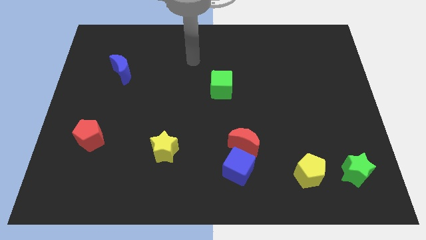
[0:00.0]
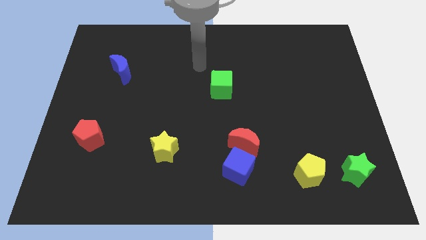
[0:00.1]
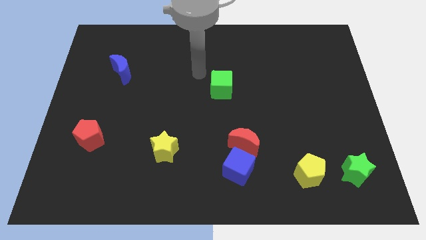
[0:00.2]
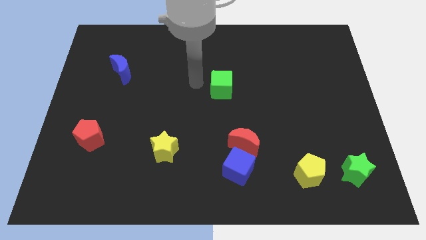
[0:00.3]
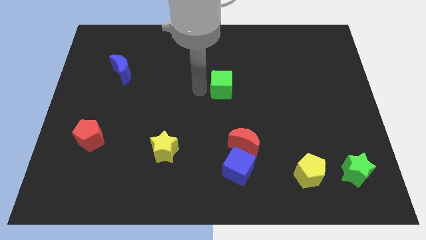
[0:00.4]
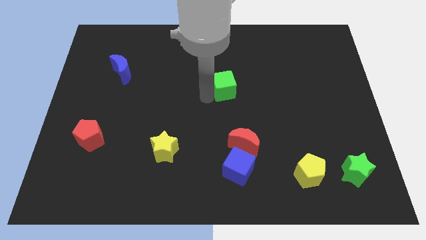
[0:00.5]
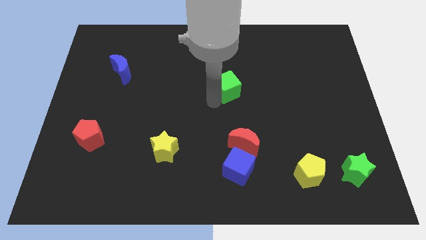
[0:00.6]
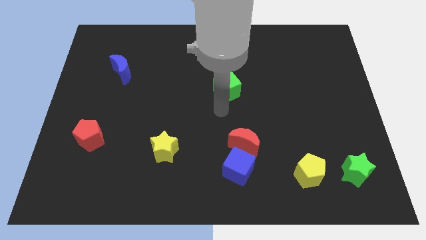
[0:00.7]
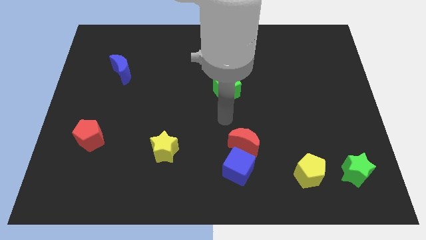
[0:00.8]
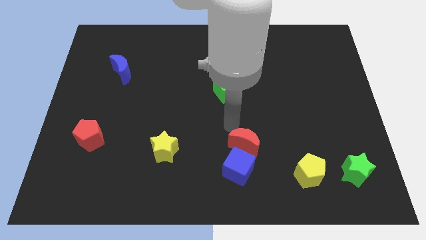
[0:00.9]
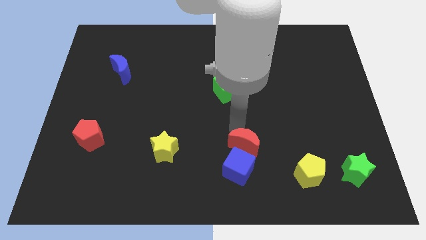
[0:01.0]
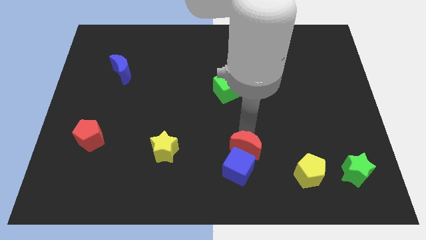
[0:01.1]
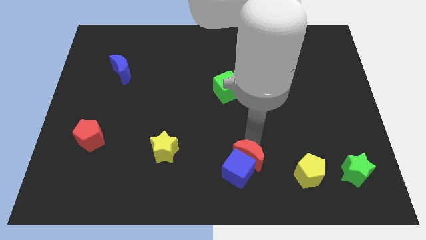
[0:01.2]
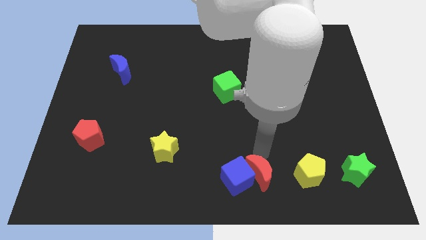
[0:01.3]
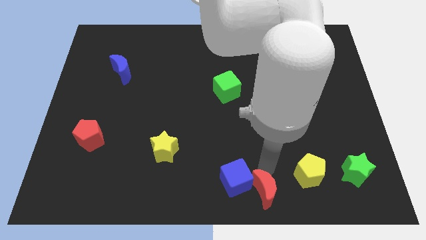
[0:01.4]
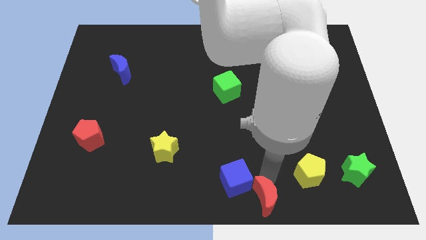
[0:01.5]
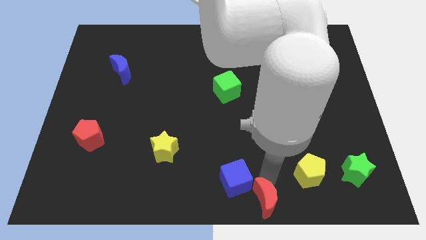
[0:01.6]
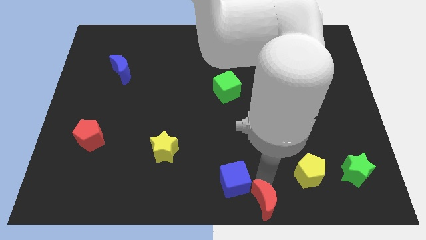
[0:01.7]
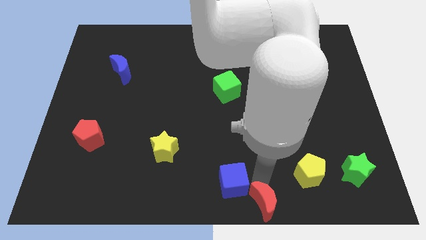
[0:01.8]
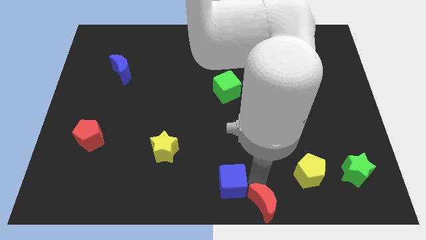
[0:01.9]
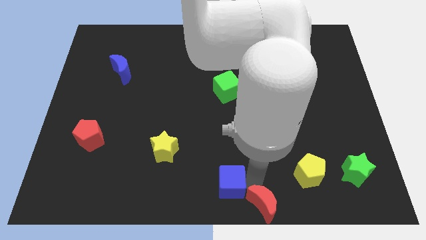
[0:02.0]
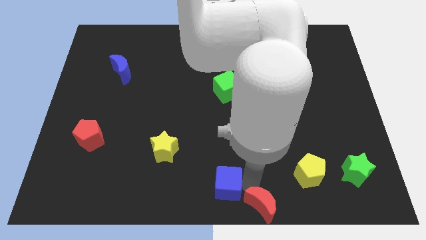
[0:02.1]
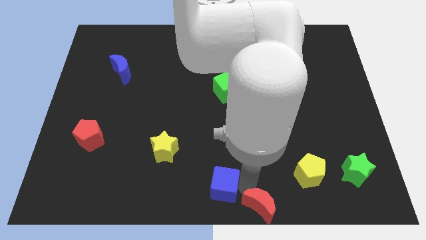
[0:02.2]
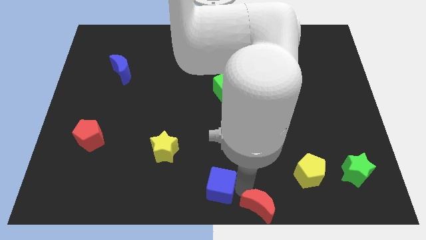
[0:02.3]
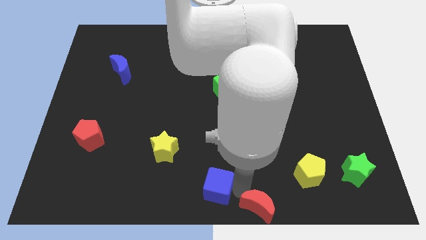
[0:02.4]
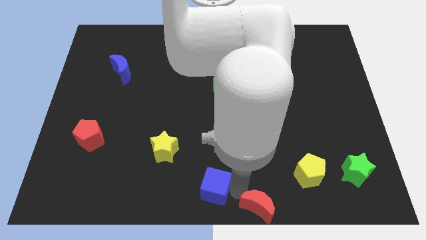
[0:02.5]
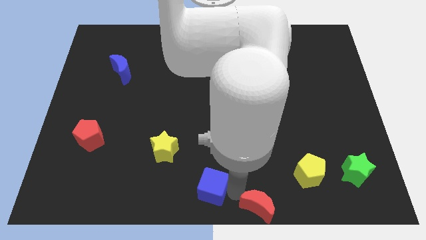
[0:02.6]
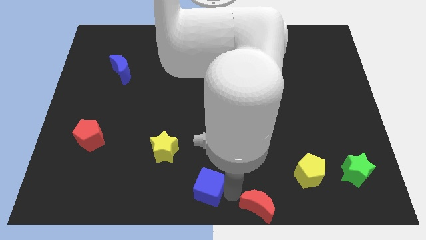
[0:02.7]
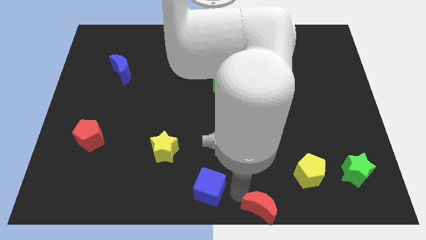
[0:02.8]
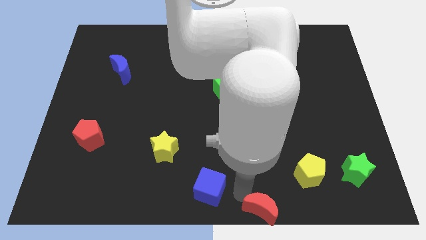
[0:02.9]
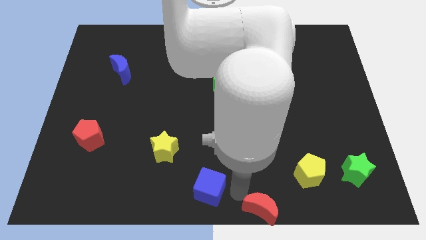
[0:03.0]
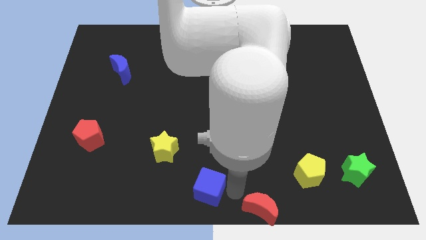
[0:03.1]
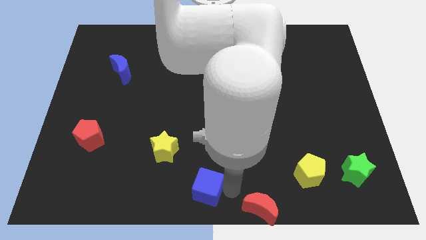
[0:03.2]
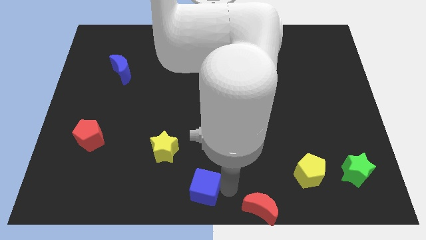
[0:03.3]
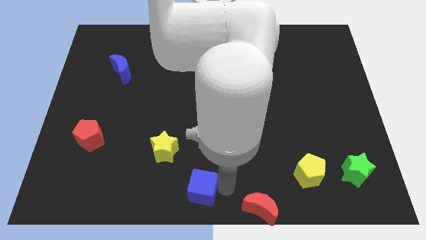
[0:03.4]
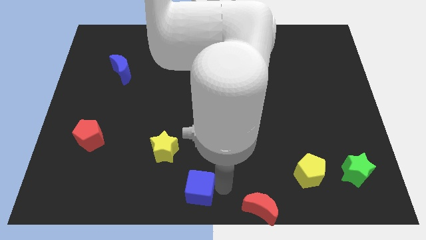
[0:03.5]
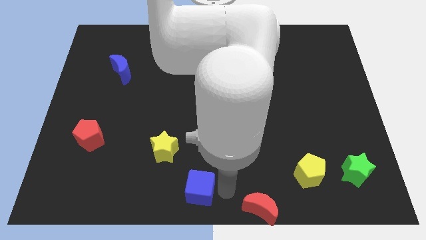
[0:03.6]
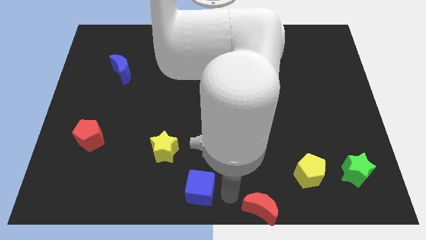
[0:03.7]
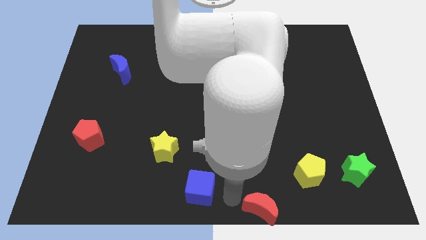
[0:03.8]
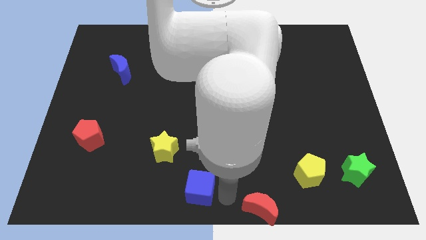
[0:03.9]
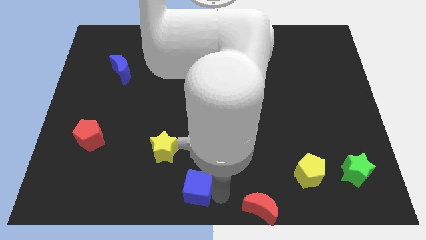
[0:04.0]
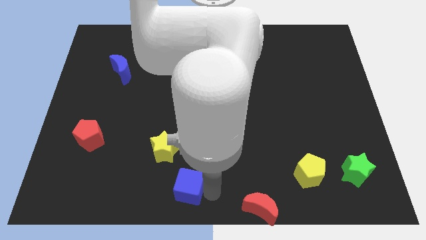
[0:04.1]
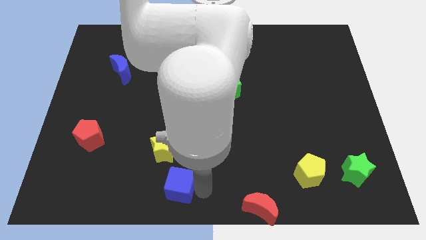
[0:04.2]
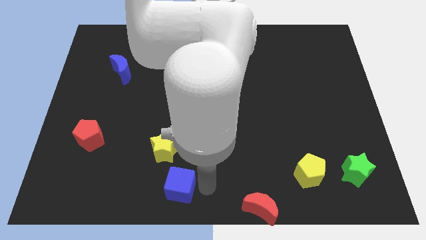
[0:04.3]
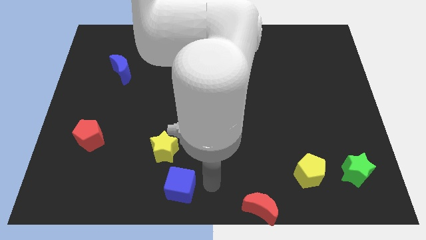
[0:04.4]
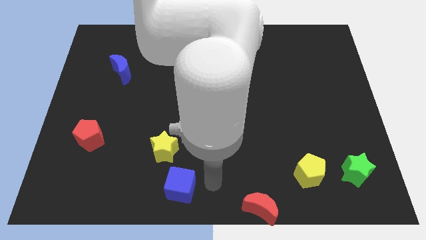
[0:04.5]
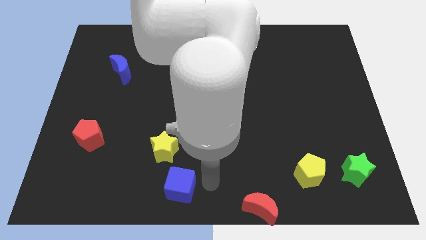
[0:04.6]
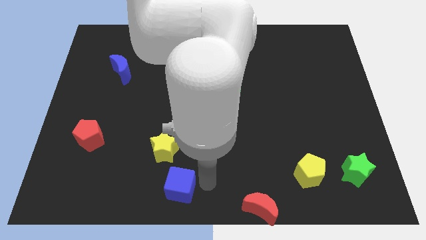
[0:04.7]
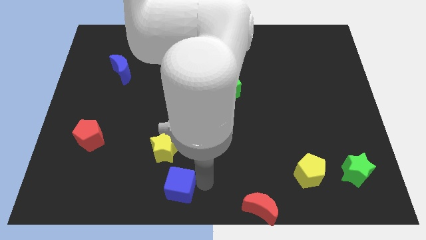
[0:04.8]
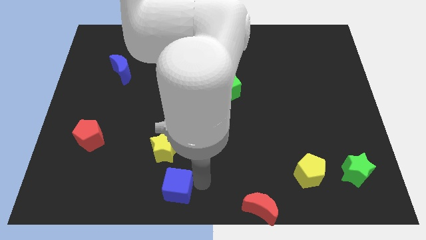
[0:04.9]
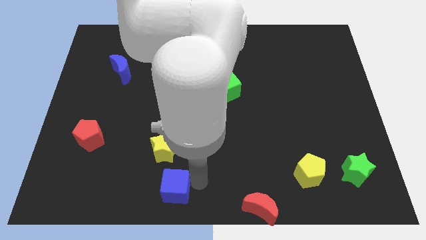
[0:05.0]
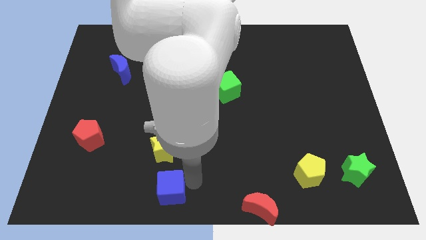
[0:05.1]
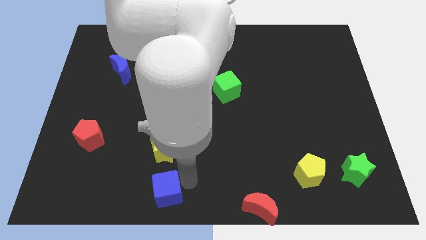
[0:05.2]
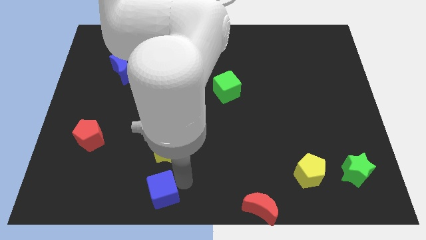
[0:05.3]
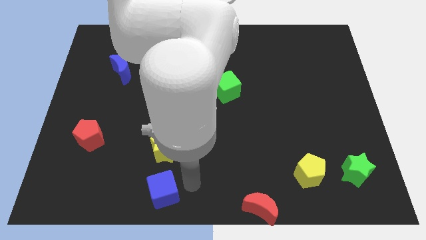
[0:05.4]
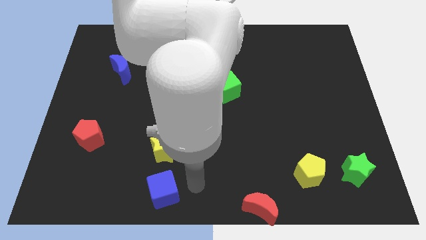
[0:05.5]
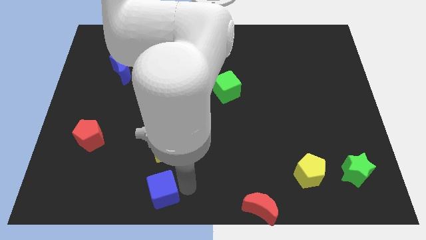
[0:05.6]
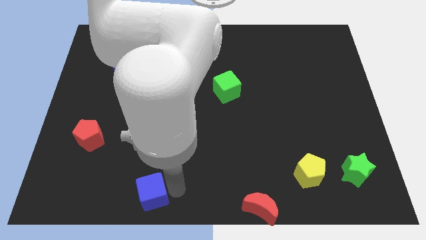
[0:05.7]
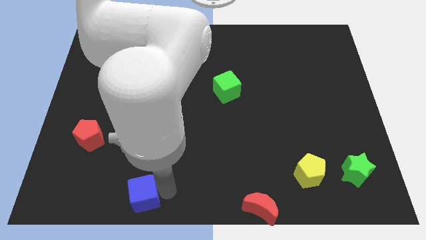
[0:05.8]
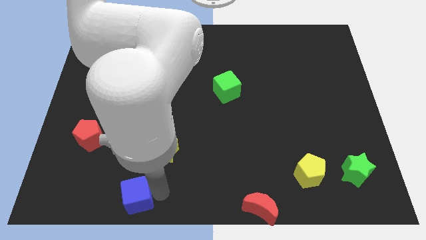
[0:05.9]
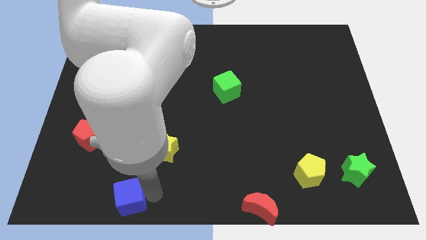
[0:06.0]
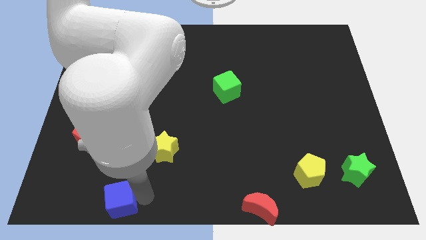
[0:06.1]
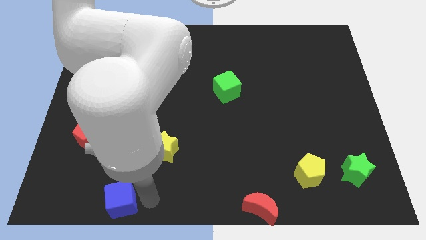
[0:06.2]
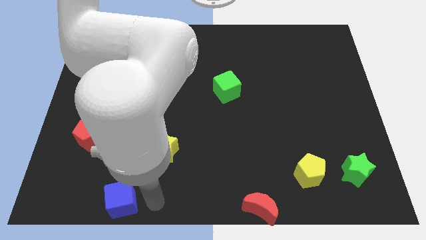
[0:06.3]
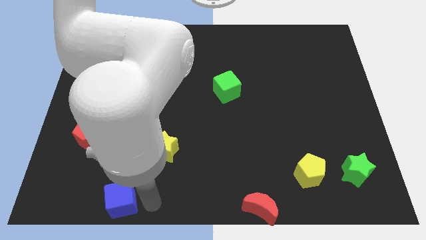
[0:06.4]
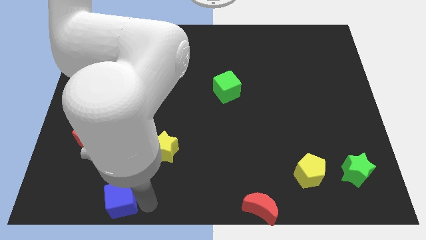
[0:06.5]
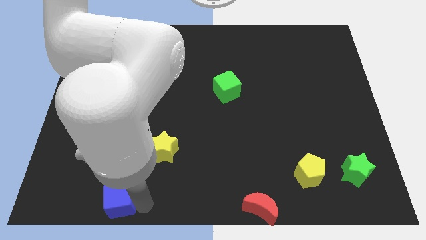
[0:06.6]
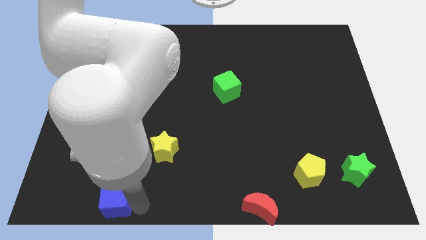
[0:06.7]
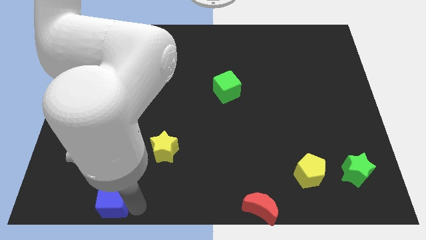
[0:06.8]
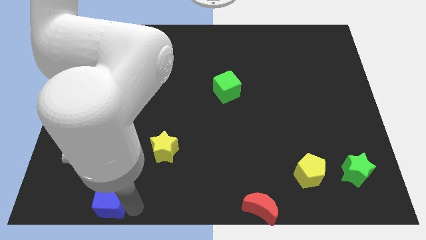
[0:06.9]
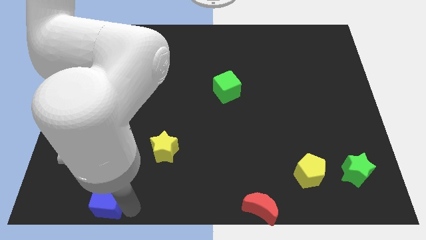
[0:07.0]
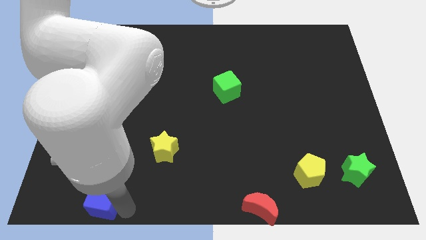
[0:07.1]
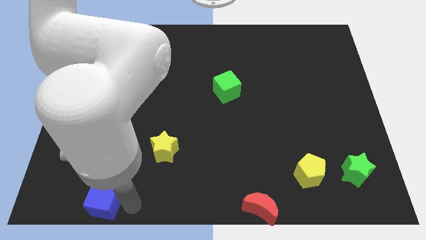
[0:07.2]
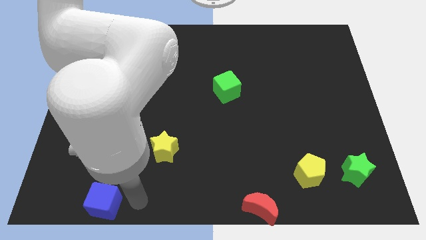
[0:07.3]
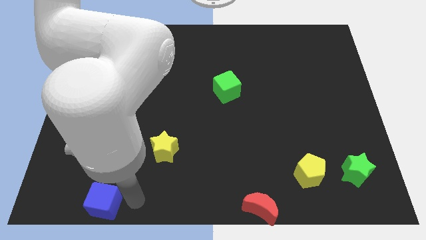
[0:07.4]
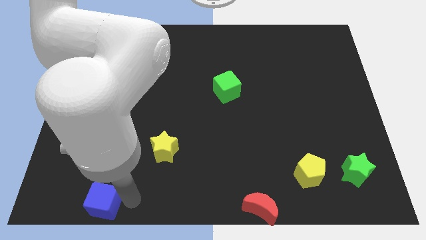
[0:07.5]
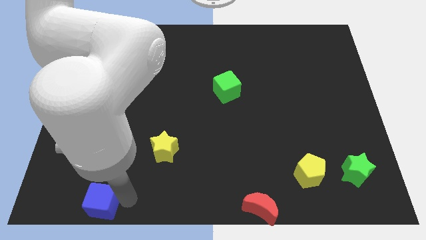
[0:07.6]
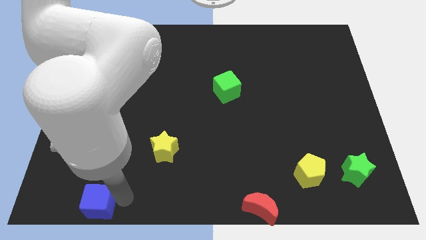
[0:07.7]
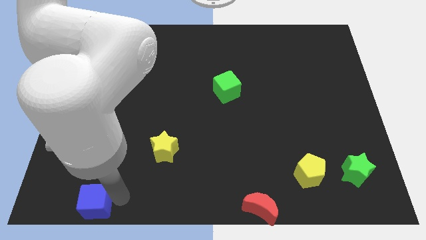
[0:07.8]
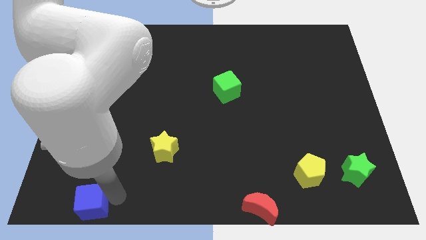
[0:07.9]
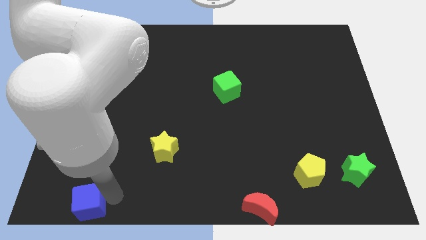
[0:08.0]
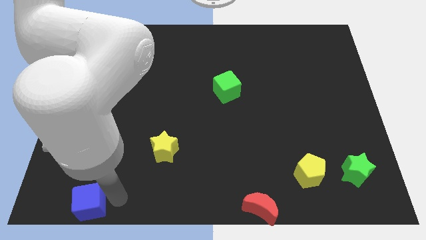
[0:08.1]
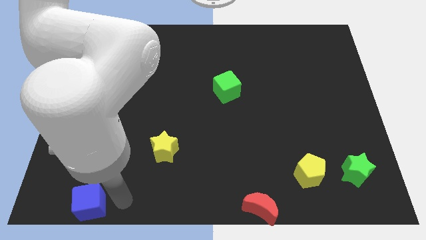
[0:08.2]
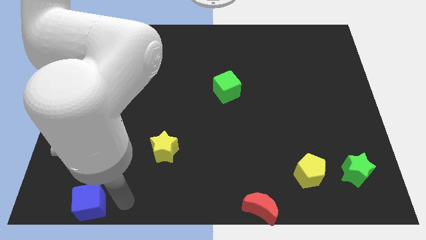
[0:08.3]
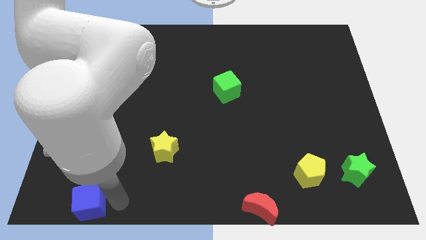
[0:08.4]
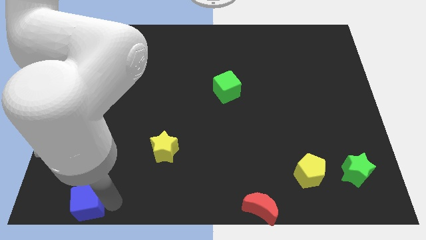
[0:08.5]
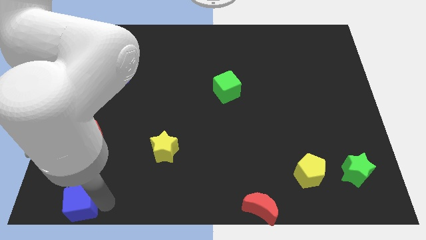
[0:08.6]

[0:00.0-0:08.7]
put the blue cube to the lower left corner
